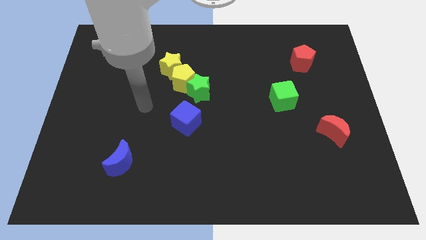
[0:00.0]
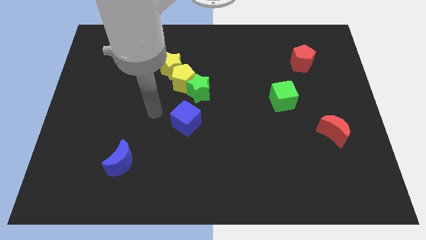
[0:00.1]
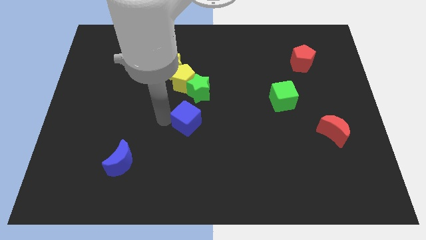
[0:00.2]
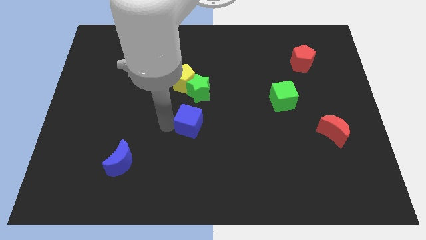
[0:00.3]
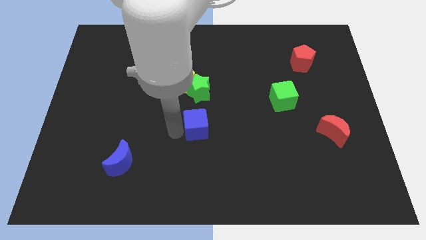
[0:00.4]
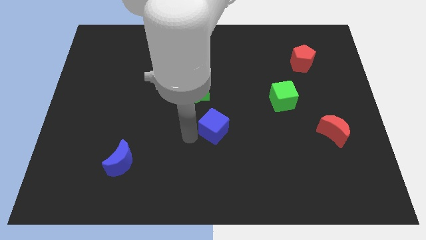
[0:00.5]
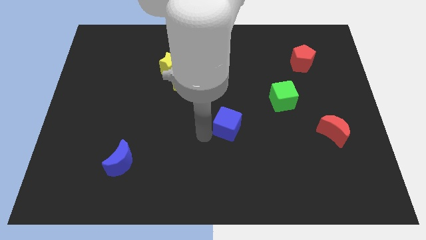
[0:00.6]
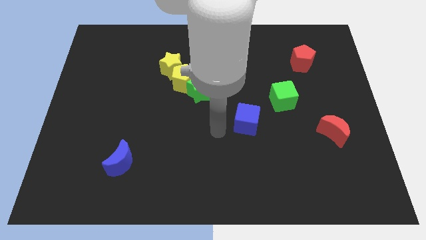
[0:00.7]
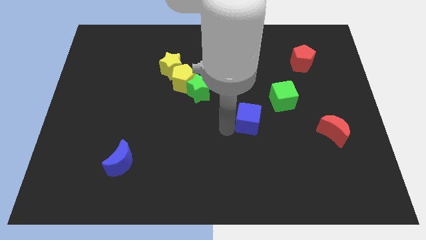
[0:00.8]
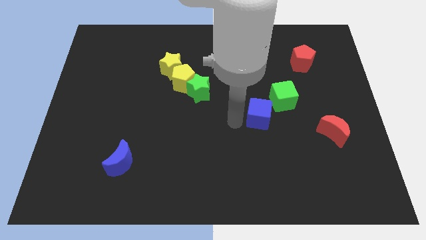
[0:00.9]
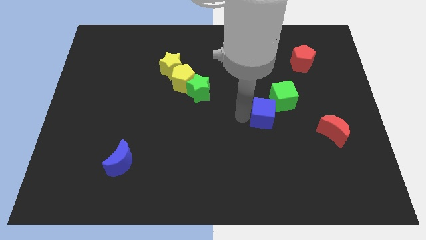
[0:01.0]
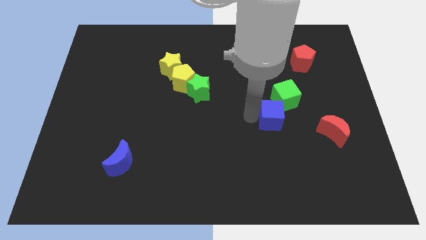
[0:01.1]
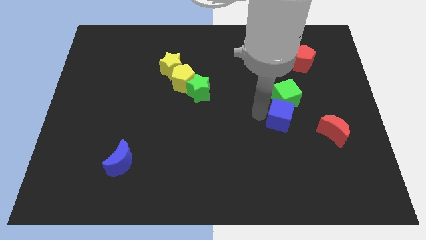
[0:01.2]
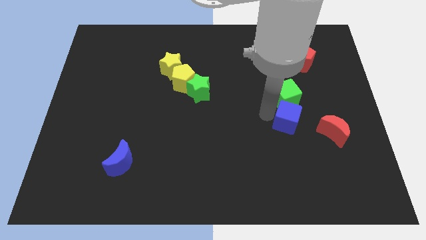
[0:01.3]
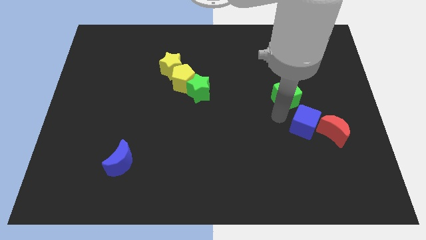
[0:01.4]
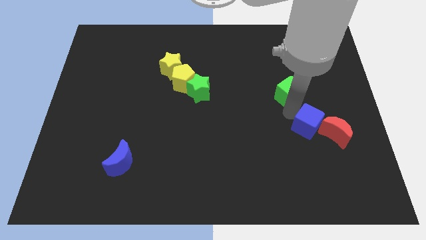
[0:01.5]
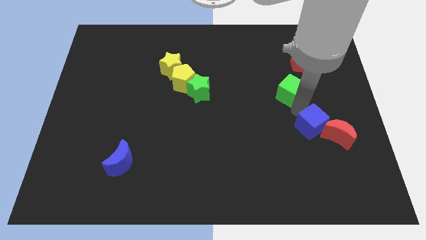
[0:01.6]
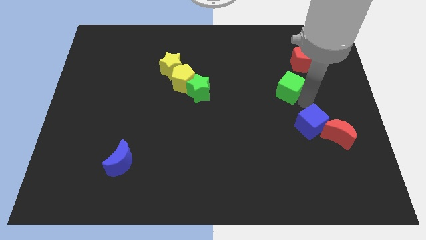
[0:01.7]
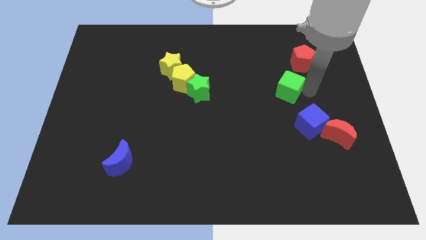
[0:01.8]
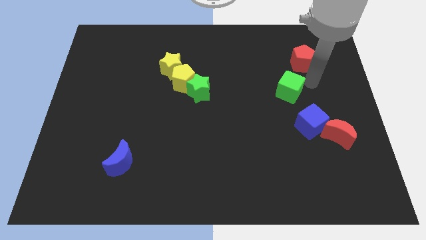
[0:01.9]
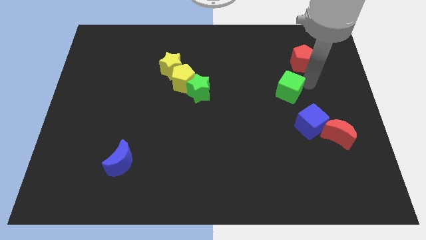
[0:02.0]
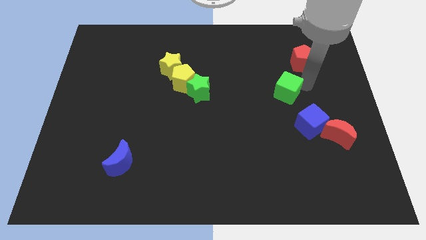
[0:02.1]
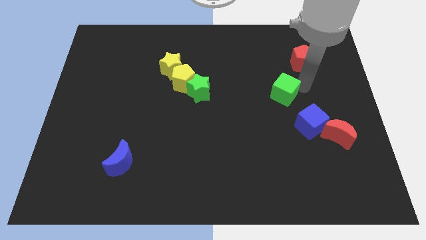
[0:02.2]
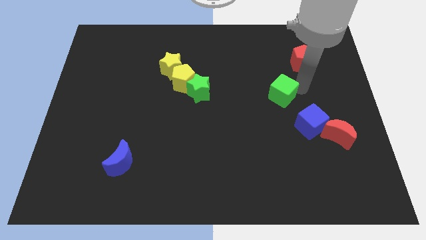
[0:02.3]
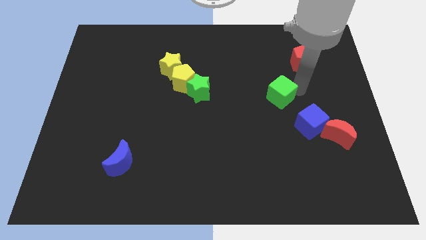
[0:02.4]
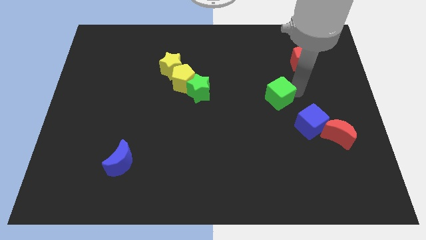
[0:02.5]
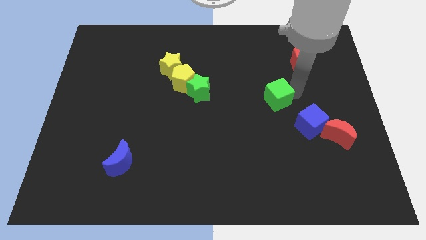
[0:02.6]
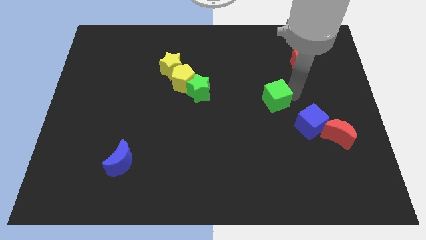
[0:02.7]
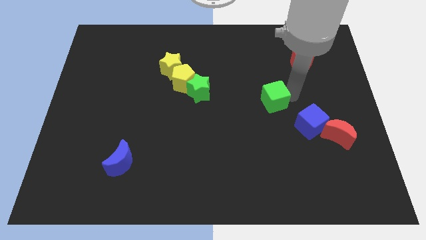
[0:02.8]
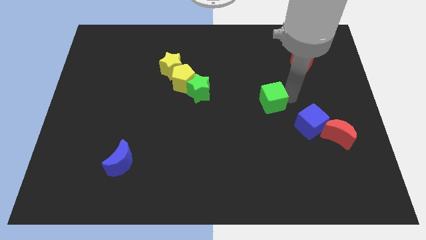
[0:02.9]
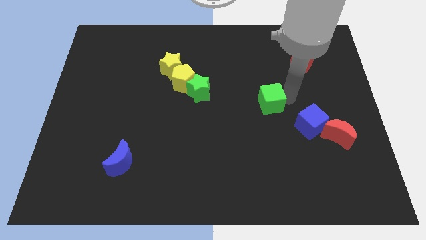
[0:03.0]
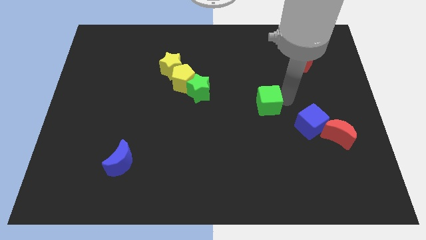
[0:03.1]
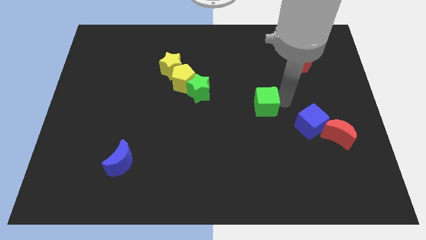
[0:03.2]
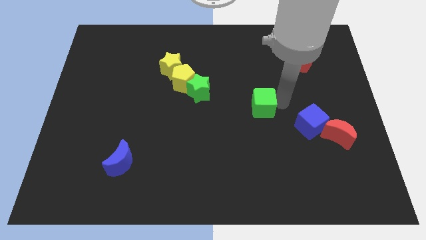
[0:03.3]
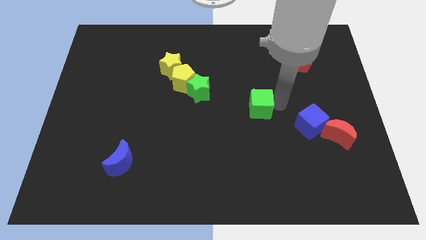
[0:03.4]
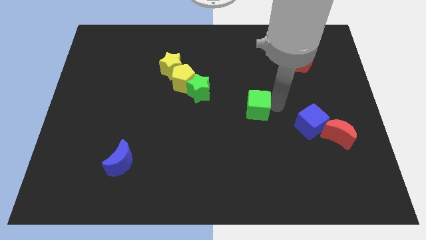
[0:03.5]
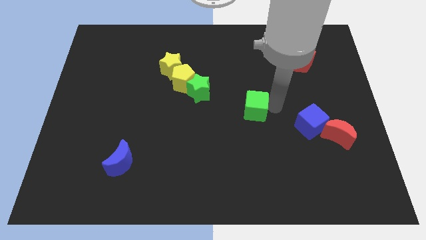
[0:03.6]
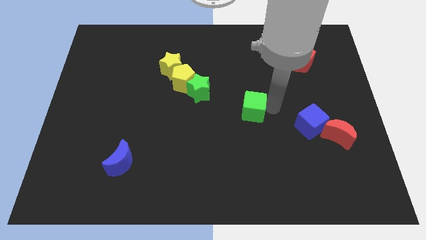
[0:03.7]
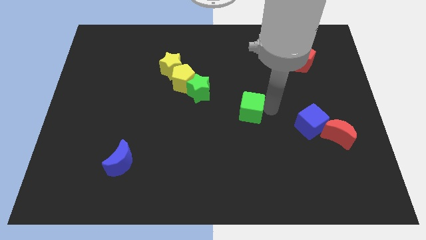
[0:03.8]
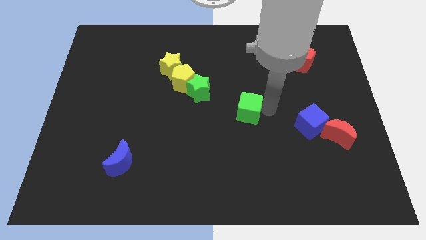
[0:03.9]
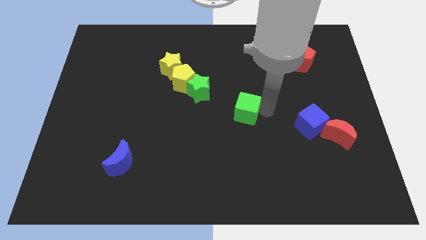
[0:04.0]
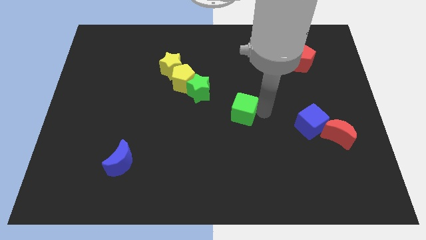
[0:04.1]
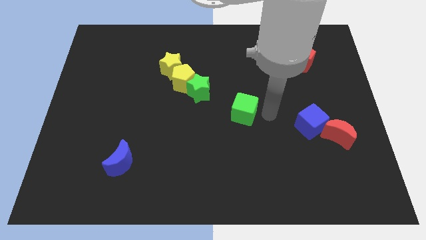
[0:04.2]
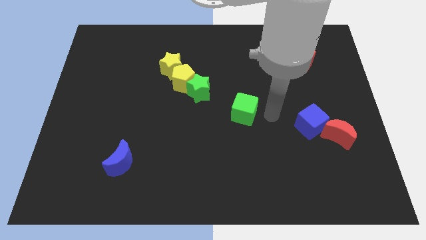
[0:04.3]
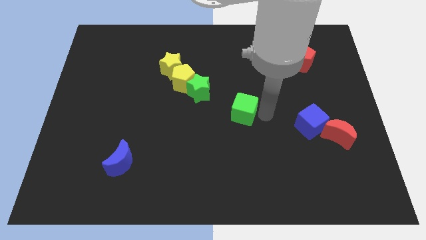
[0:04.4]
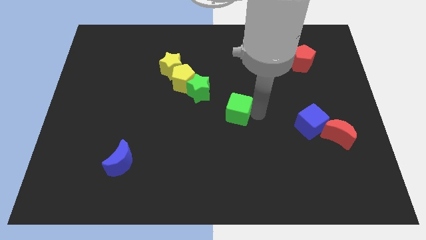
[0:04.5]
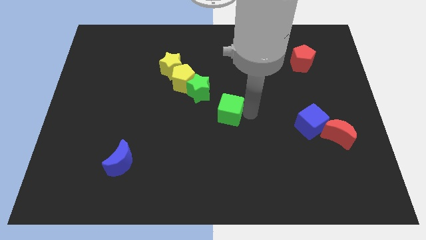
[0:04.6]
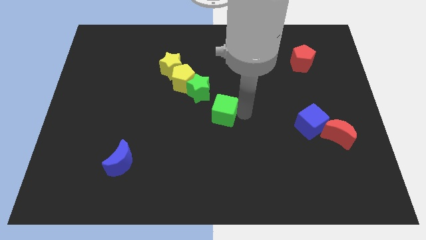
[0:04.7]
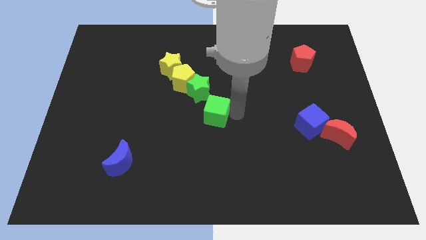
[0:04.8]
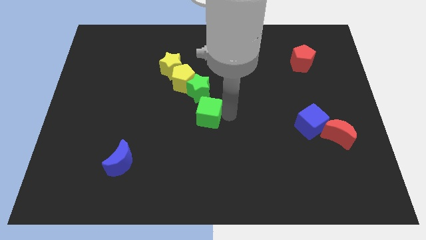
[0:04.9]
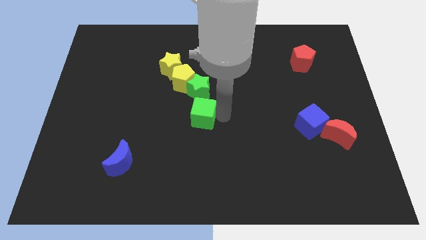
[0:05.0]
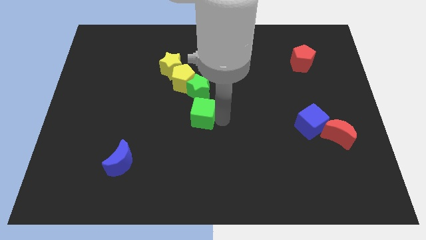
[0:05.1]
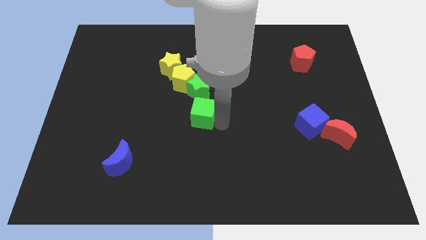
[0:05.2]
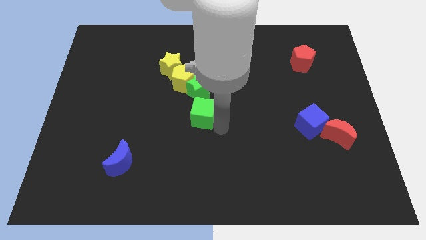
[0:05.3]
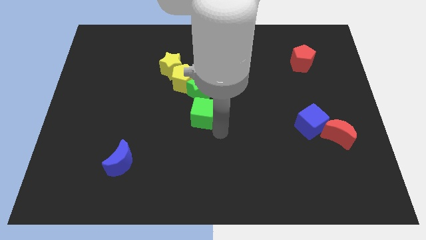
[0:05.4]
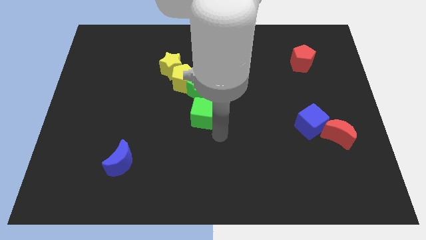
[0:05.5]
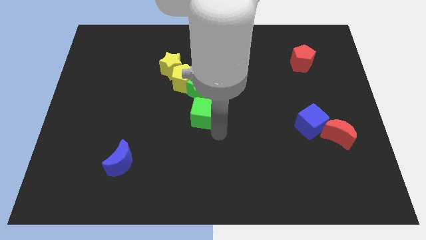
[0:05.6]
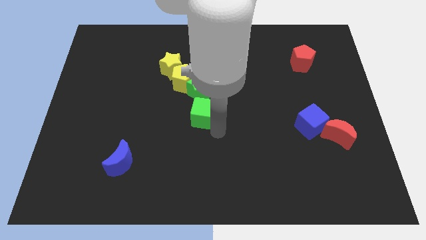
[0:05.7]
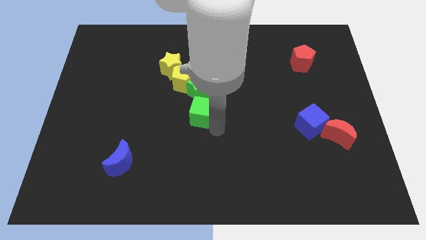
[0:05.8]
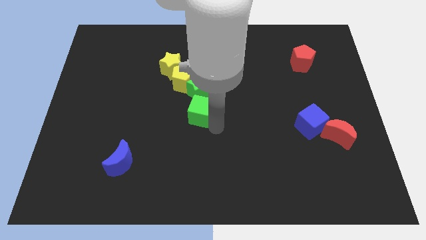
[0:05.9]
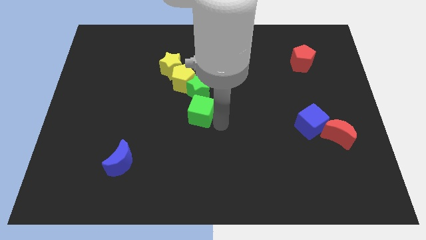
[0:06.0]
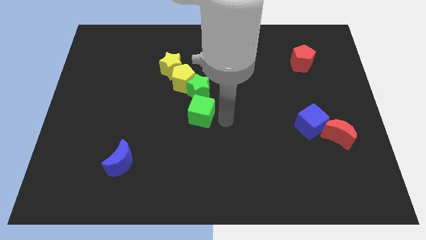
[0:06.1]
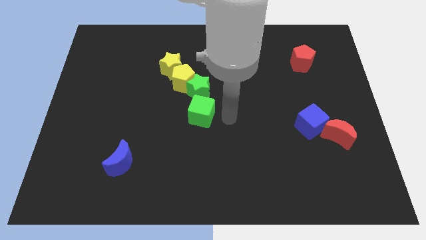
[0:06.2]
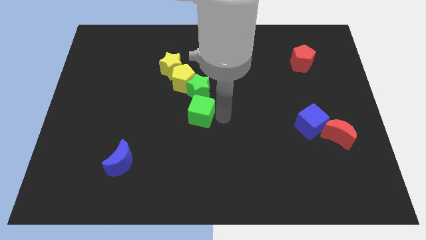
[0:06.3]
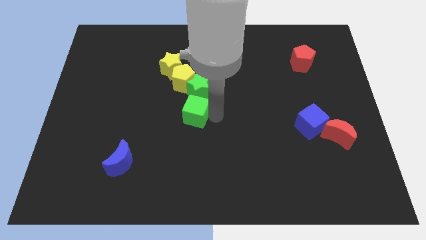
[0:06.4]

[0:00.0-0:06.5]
move the green cube to the left

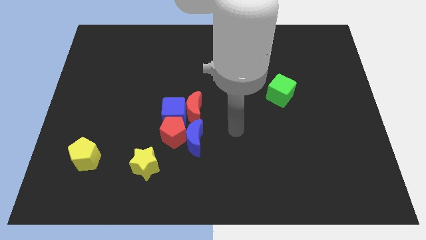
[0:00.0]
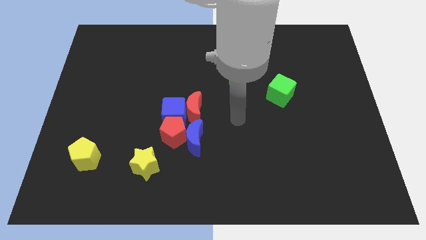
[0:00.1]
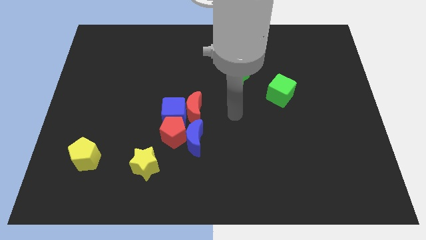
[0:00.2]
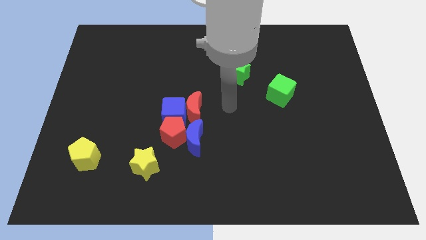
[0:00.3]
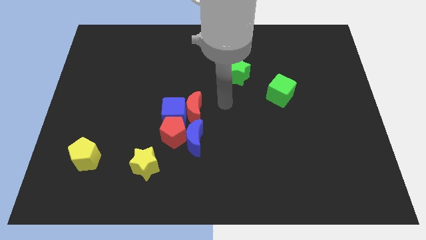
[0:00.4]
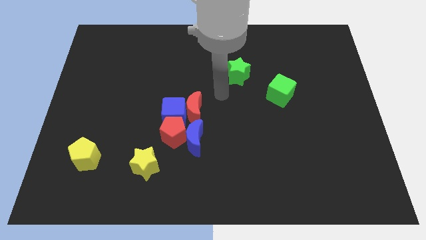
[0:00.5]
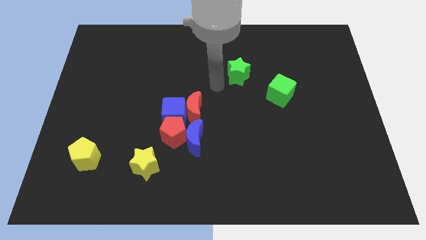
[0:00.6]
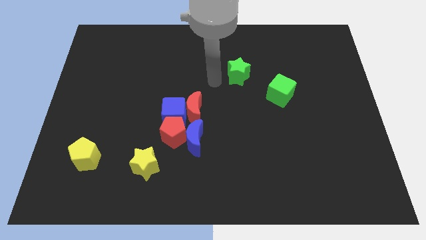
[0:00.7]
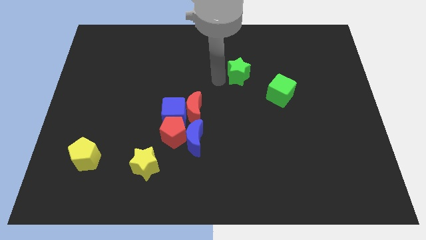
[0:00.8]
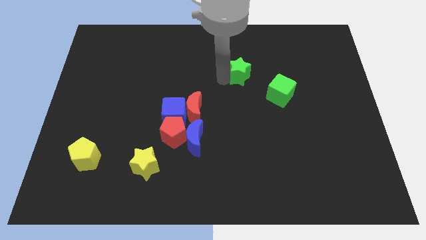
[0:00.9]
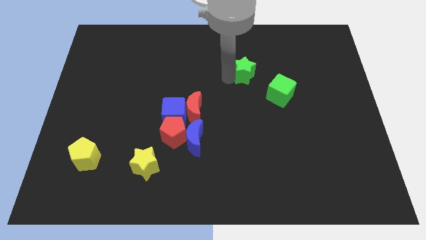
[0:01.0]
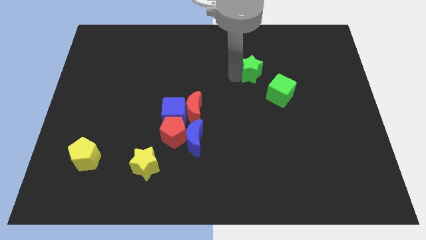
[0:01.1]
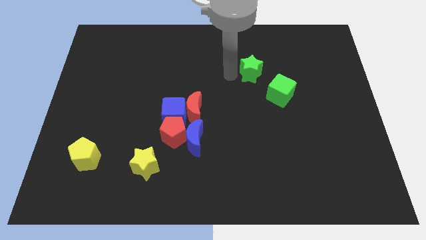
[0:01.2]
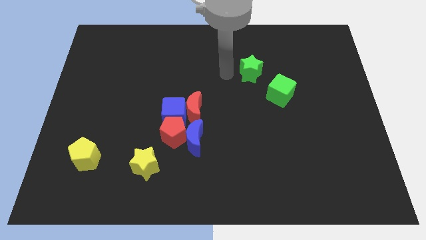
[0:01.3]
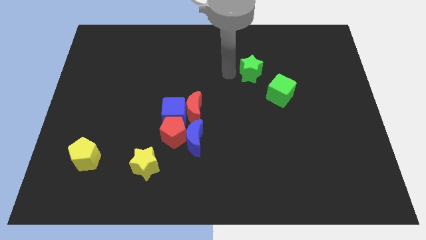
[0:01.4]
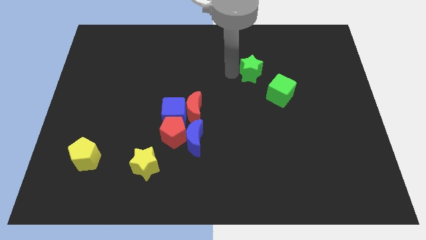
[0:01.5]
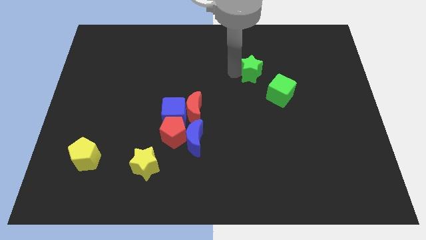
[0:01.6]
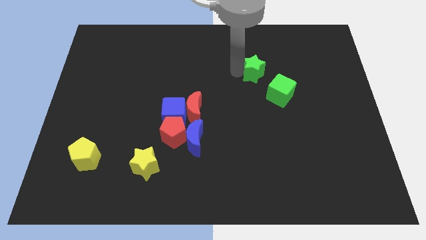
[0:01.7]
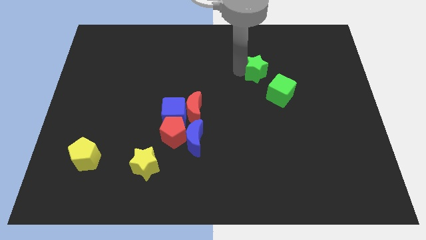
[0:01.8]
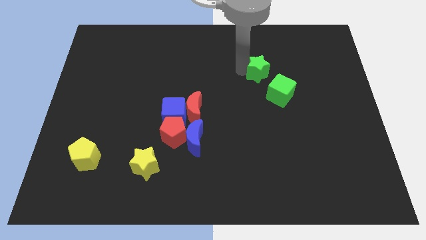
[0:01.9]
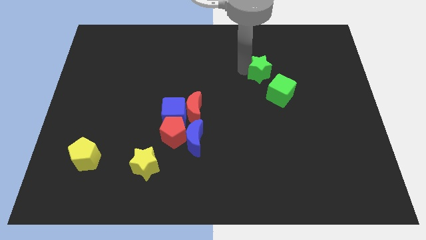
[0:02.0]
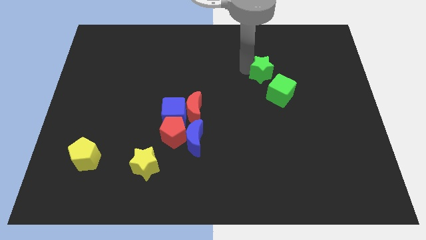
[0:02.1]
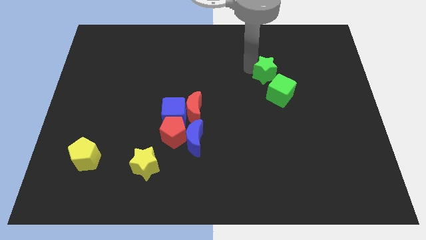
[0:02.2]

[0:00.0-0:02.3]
slightly push the green star to the right
